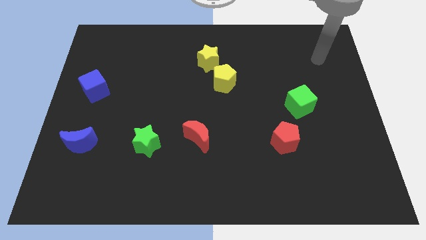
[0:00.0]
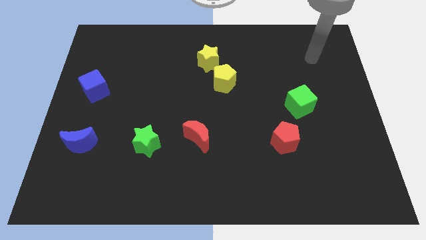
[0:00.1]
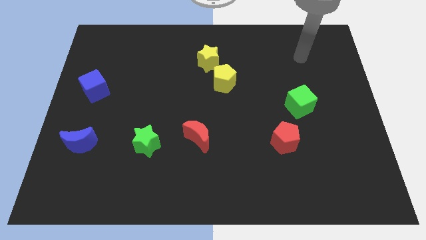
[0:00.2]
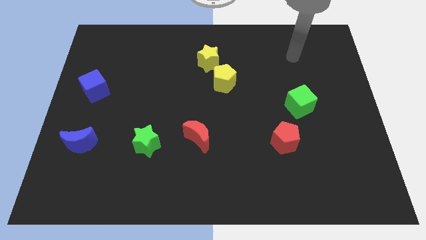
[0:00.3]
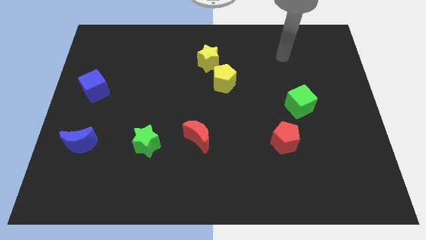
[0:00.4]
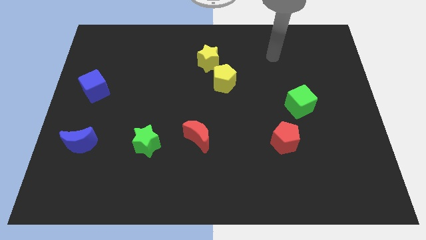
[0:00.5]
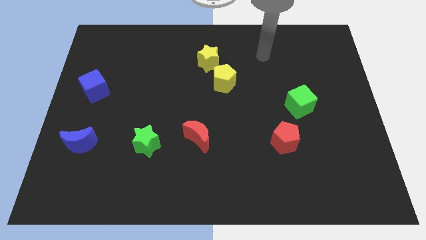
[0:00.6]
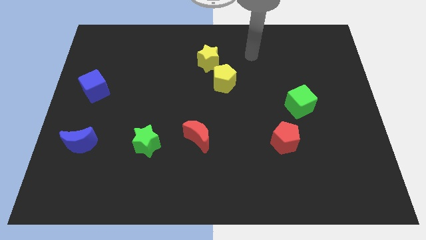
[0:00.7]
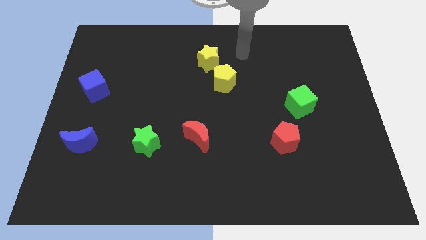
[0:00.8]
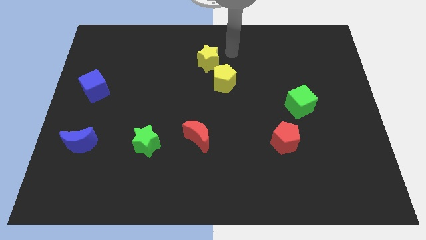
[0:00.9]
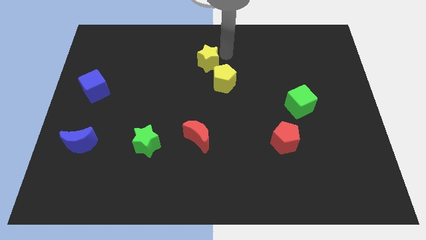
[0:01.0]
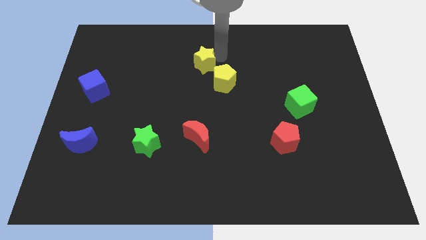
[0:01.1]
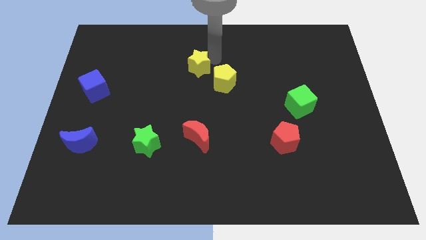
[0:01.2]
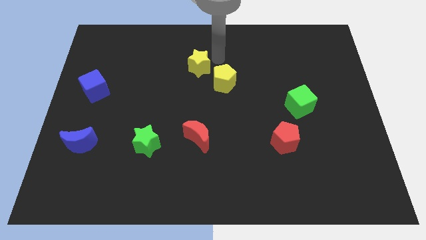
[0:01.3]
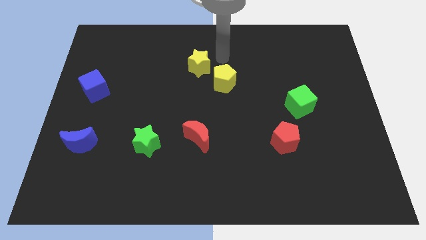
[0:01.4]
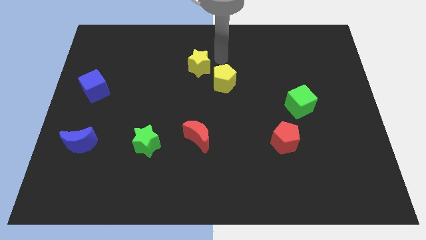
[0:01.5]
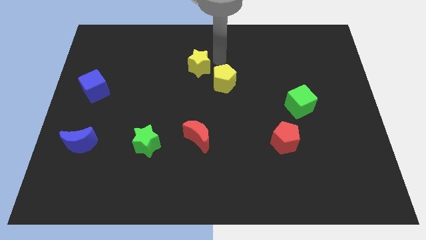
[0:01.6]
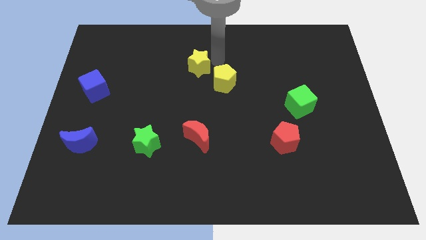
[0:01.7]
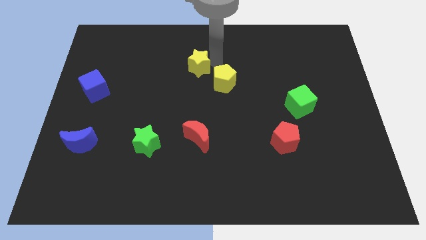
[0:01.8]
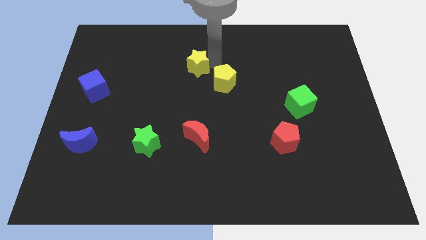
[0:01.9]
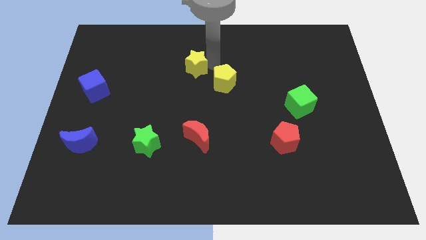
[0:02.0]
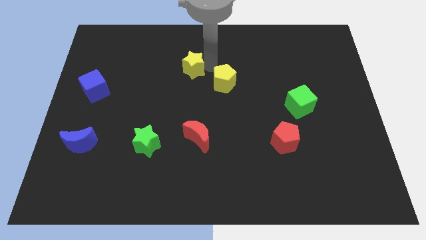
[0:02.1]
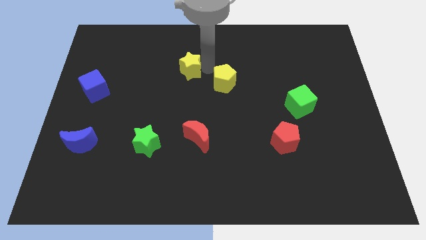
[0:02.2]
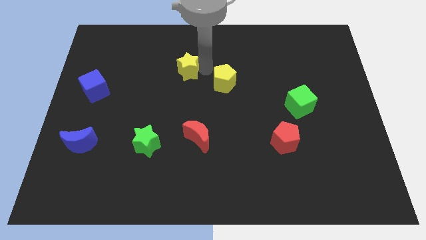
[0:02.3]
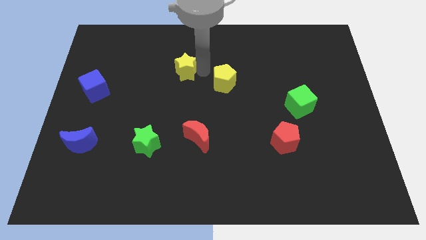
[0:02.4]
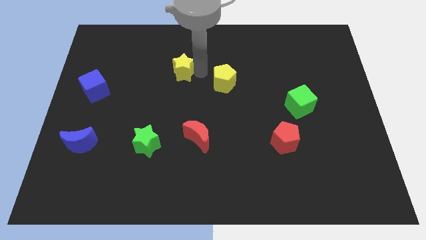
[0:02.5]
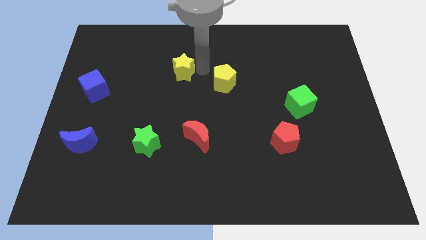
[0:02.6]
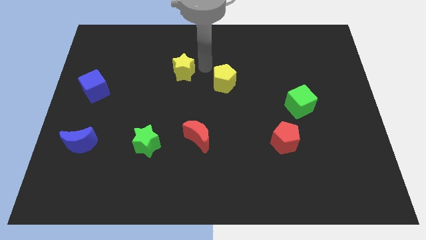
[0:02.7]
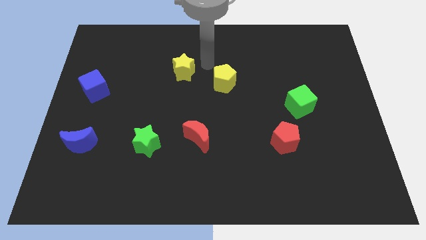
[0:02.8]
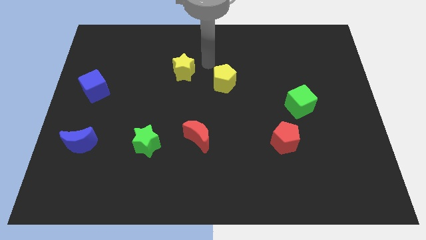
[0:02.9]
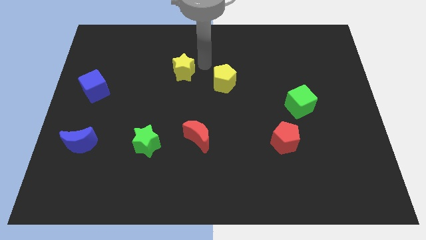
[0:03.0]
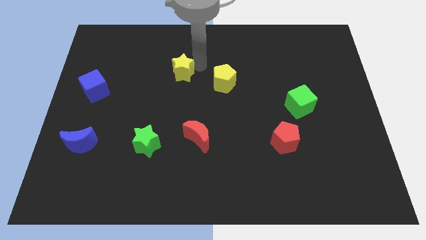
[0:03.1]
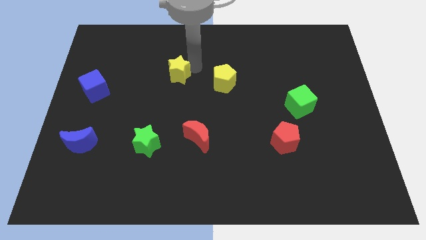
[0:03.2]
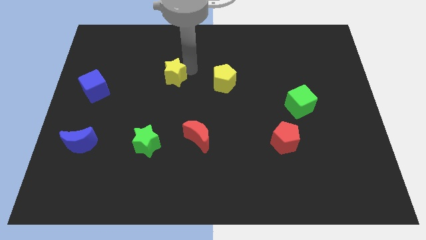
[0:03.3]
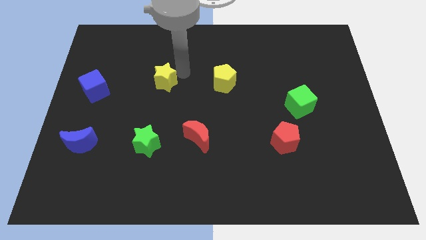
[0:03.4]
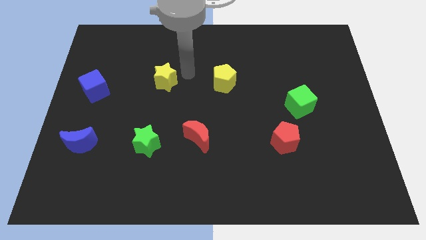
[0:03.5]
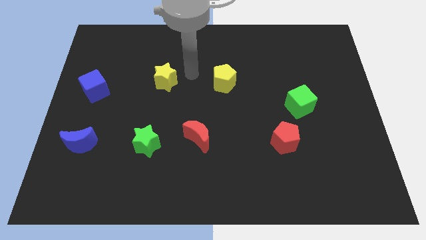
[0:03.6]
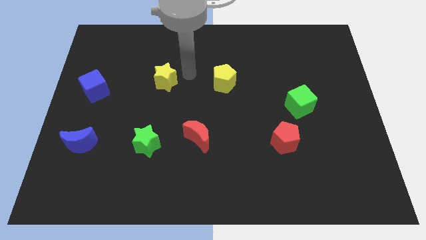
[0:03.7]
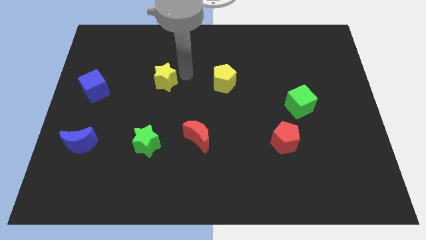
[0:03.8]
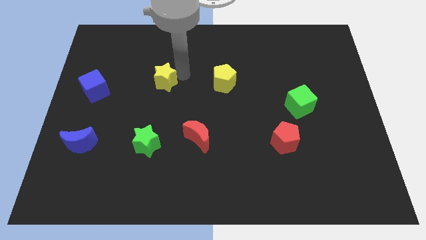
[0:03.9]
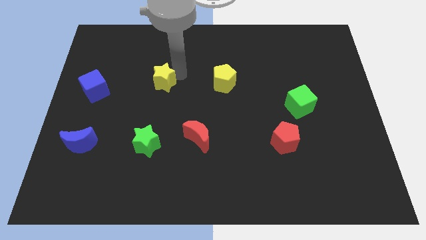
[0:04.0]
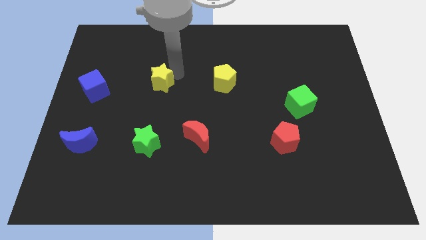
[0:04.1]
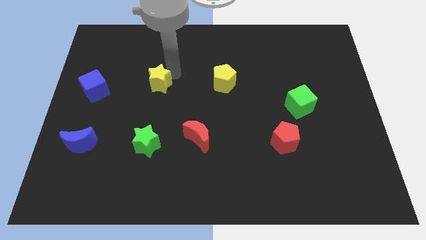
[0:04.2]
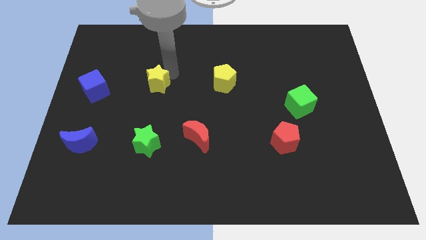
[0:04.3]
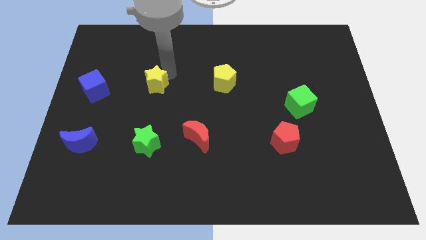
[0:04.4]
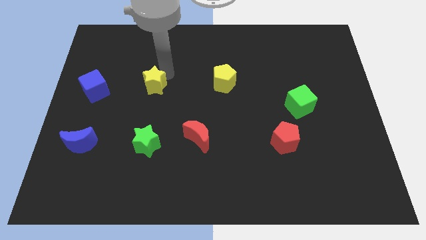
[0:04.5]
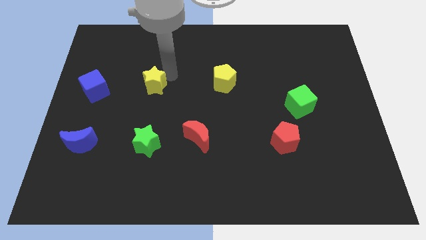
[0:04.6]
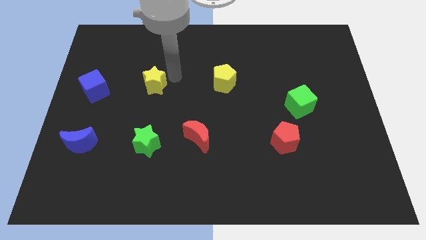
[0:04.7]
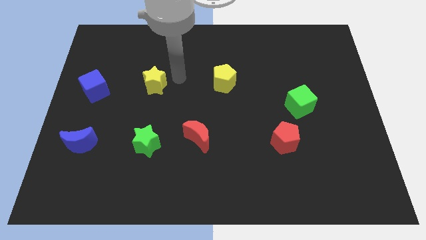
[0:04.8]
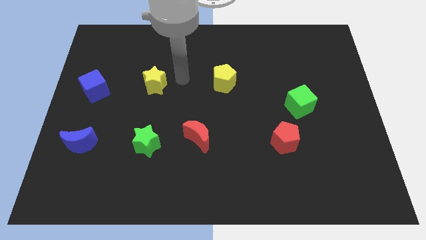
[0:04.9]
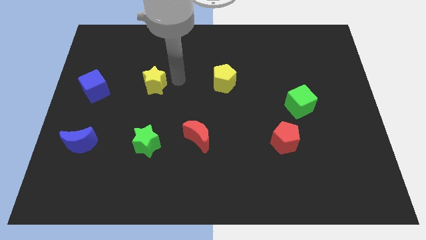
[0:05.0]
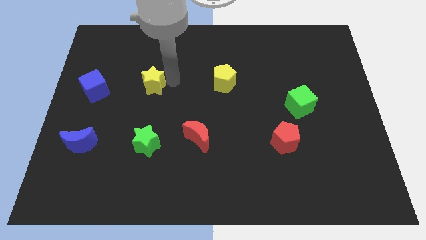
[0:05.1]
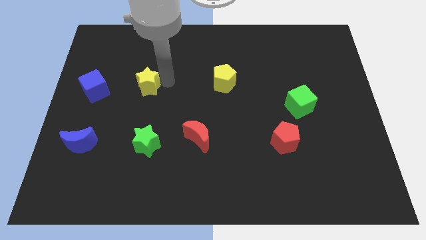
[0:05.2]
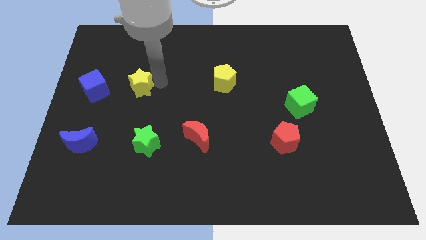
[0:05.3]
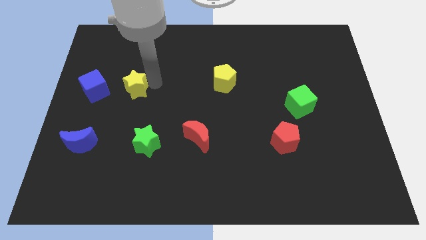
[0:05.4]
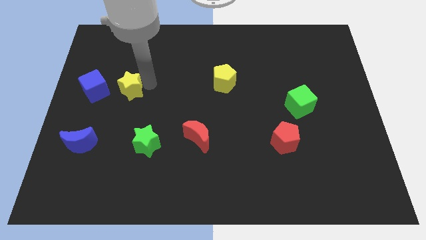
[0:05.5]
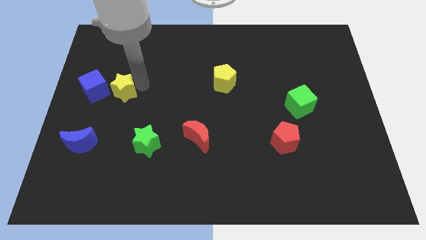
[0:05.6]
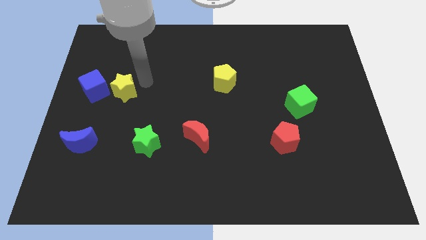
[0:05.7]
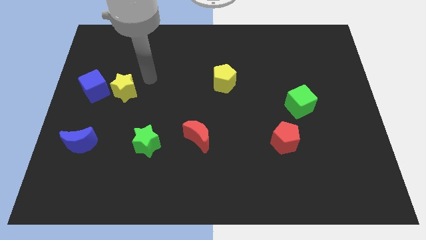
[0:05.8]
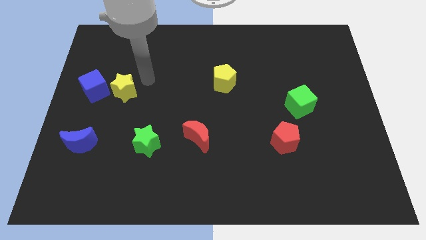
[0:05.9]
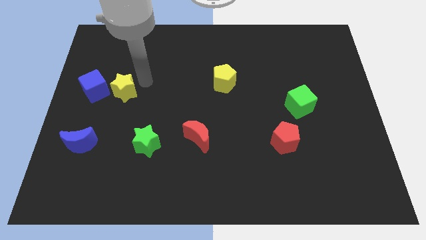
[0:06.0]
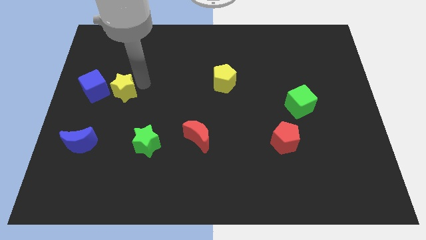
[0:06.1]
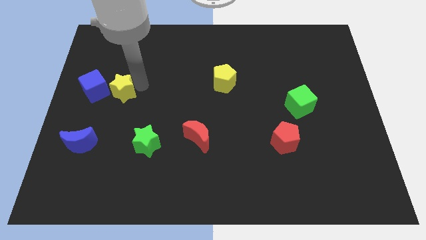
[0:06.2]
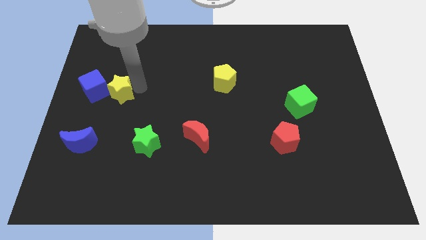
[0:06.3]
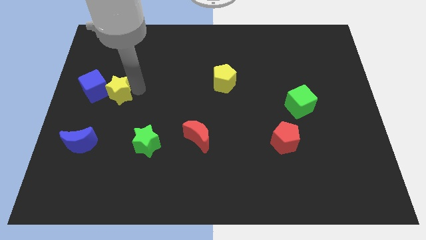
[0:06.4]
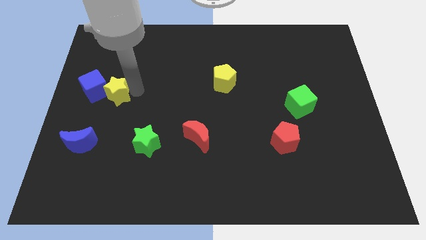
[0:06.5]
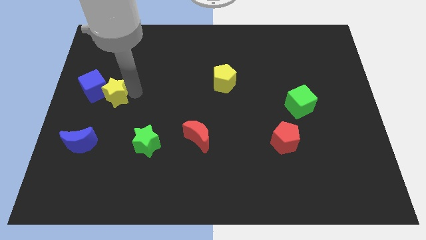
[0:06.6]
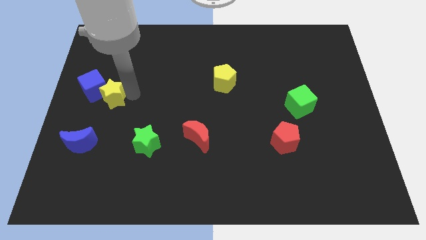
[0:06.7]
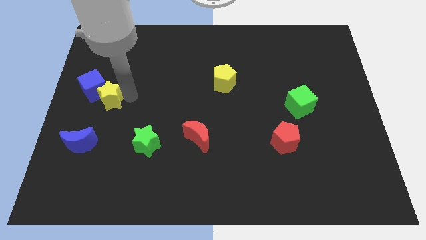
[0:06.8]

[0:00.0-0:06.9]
move the yellow star above the blue moon
